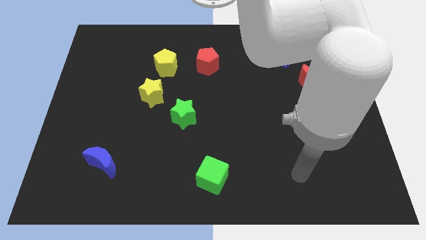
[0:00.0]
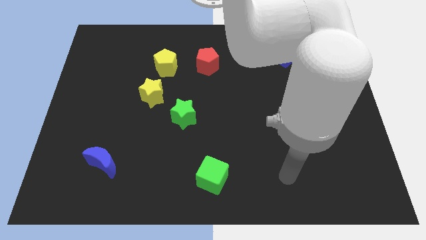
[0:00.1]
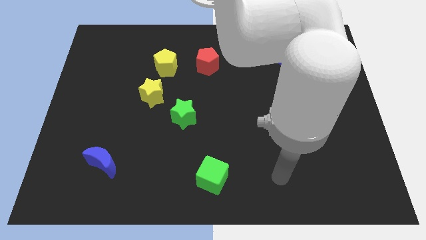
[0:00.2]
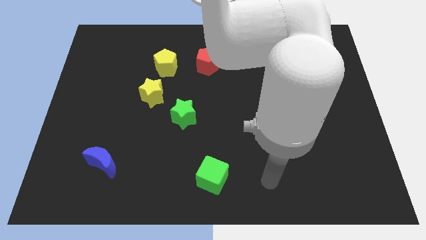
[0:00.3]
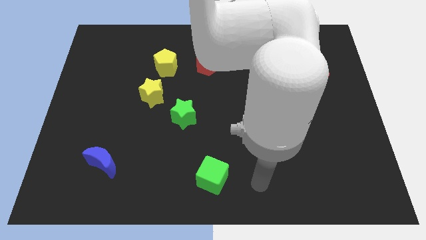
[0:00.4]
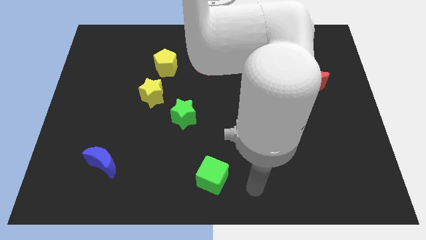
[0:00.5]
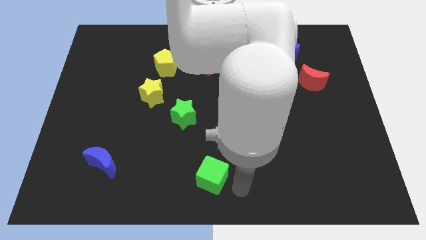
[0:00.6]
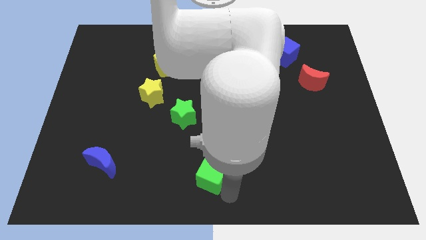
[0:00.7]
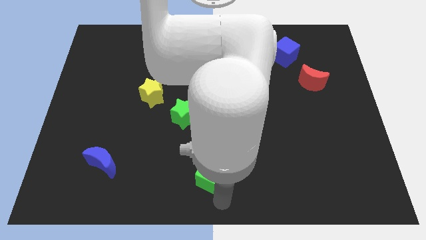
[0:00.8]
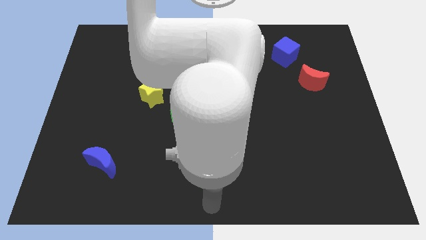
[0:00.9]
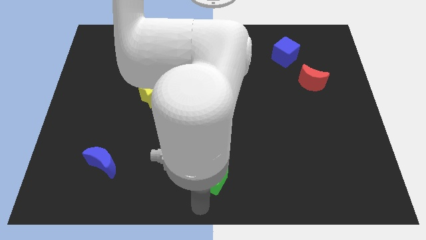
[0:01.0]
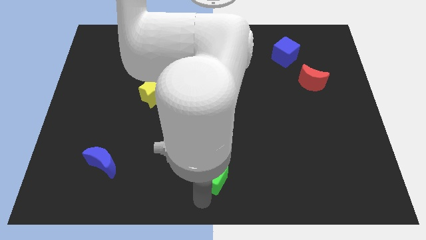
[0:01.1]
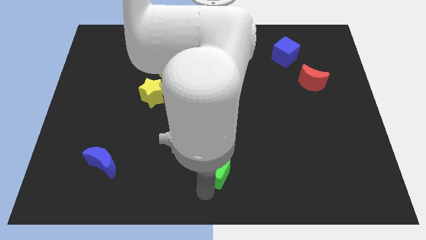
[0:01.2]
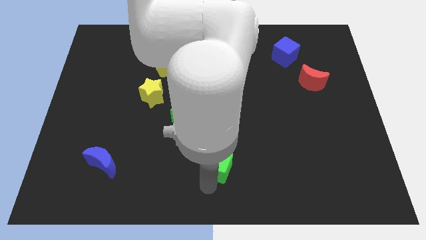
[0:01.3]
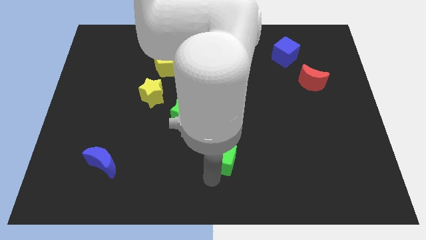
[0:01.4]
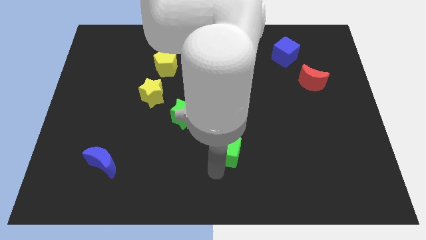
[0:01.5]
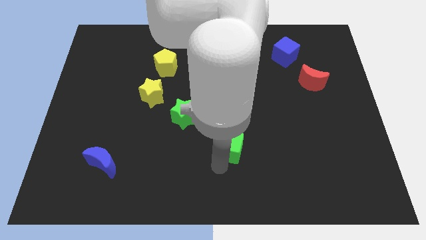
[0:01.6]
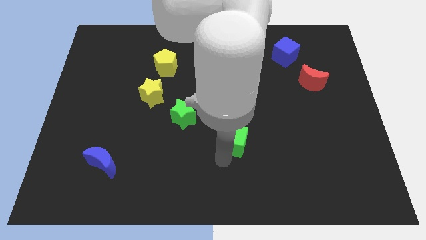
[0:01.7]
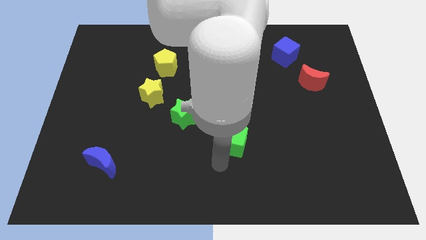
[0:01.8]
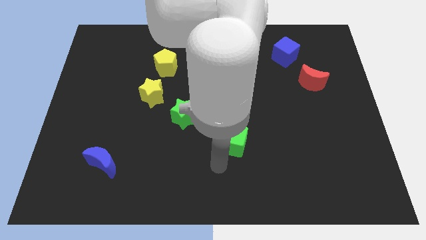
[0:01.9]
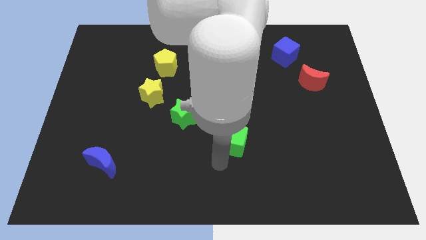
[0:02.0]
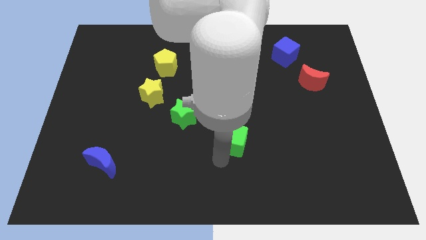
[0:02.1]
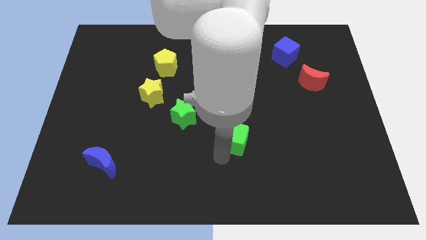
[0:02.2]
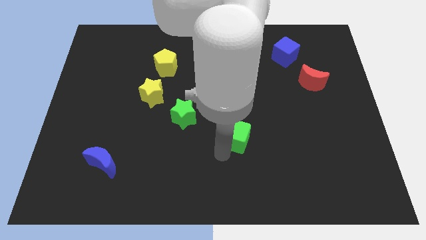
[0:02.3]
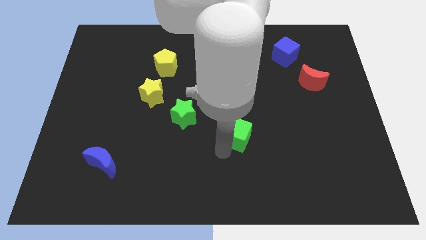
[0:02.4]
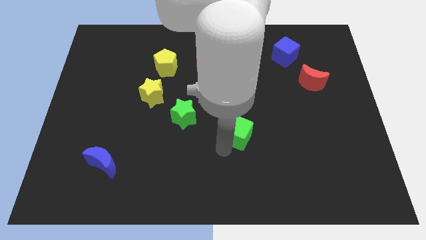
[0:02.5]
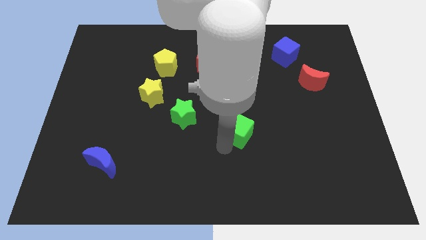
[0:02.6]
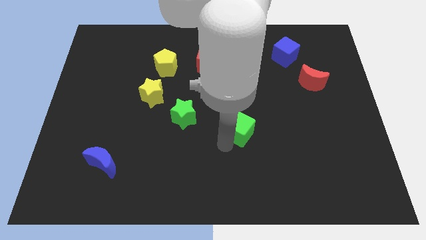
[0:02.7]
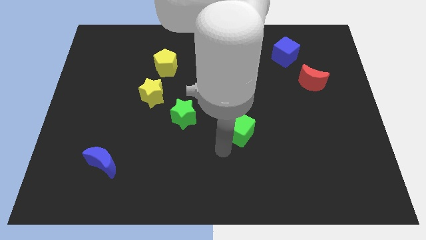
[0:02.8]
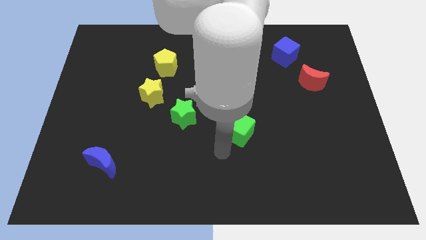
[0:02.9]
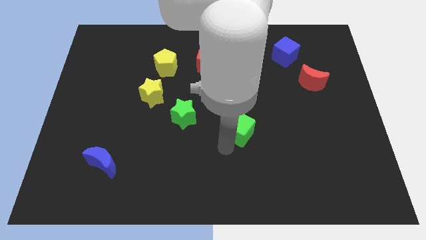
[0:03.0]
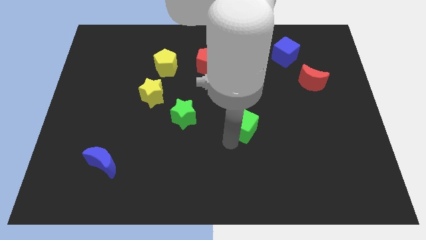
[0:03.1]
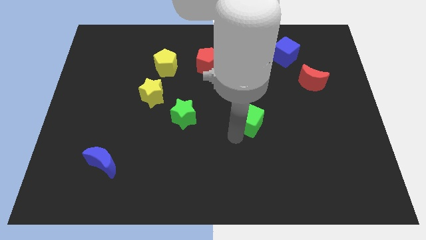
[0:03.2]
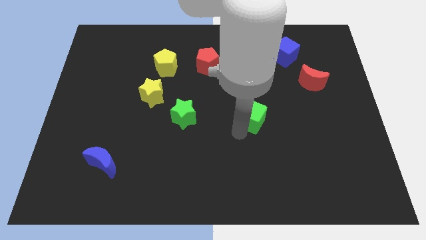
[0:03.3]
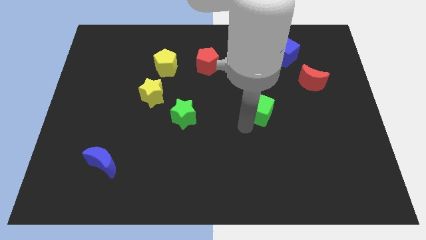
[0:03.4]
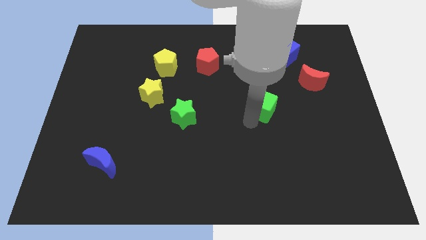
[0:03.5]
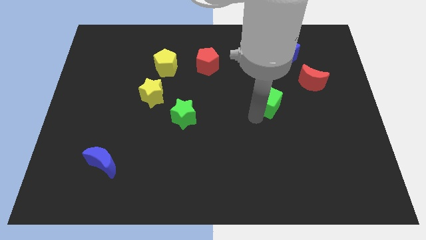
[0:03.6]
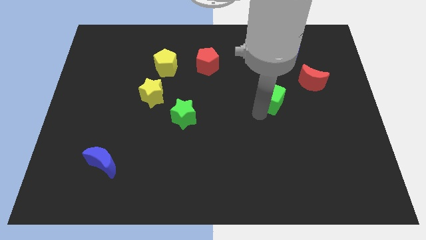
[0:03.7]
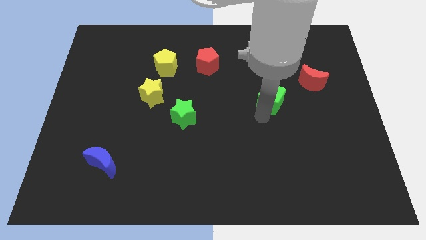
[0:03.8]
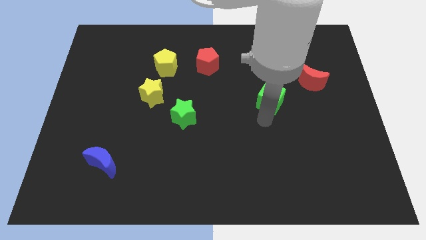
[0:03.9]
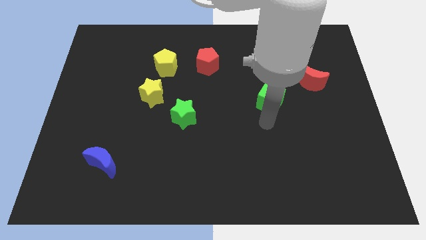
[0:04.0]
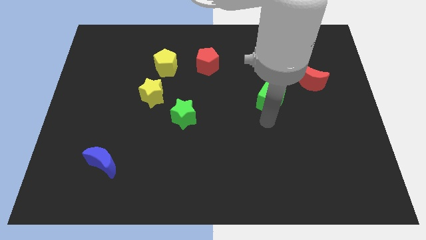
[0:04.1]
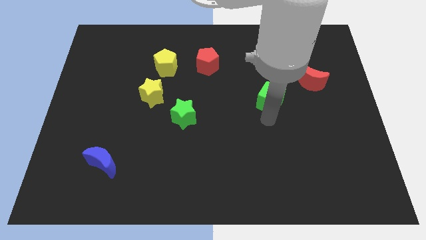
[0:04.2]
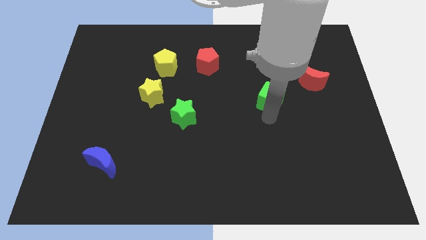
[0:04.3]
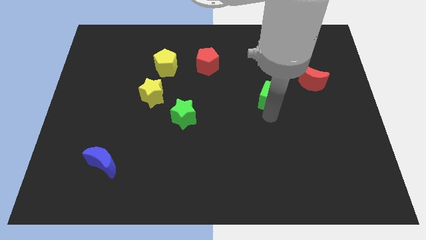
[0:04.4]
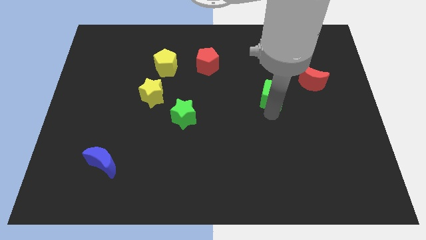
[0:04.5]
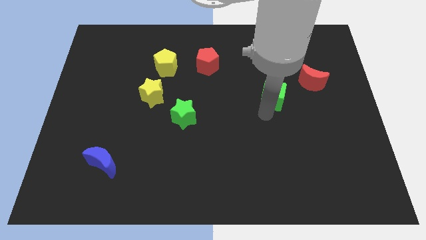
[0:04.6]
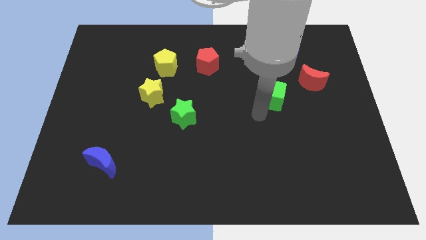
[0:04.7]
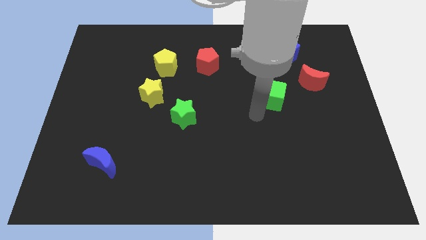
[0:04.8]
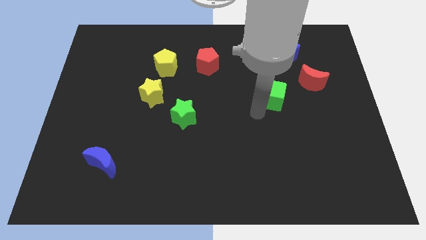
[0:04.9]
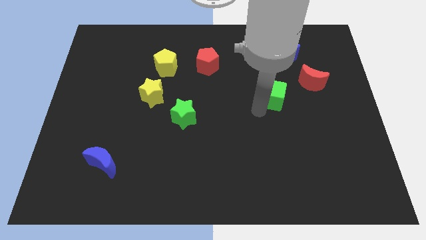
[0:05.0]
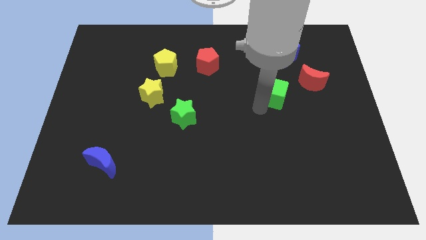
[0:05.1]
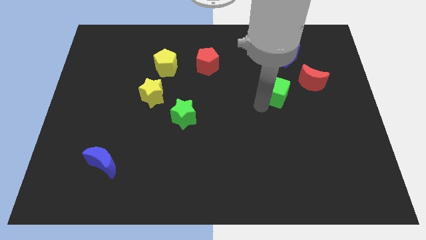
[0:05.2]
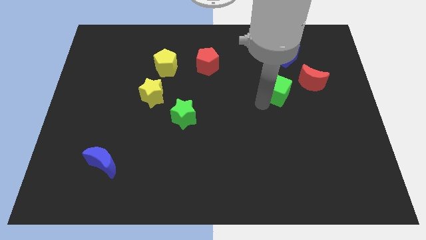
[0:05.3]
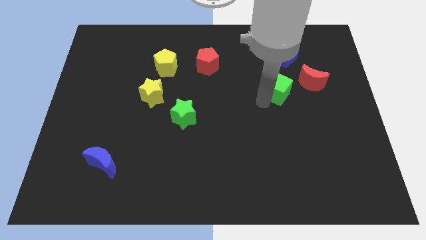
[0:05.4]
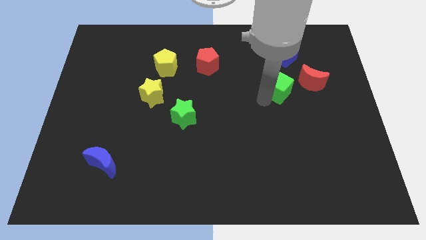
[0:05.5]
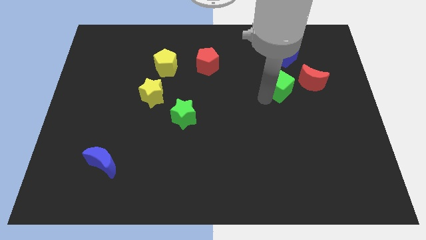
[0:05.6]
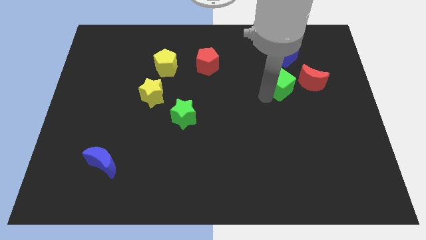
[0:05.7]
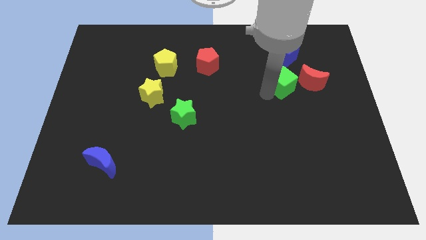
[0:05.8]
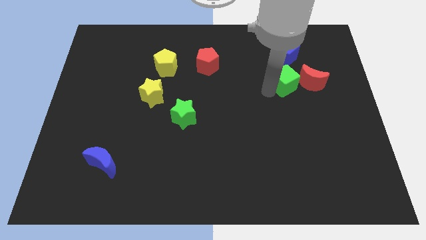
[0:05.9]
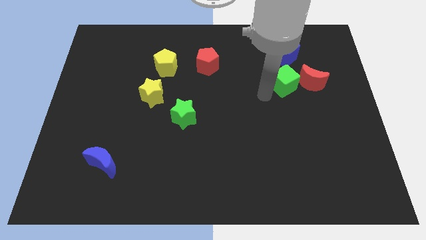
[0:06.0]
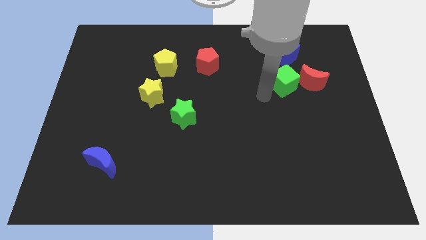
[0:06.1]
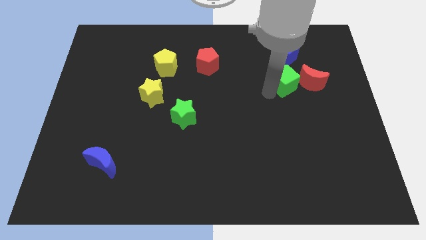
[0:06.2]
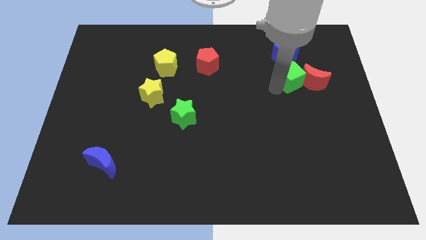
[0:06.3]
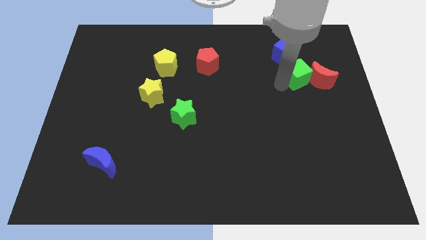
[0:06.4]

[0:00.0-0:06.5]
slide the green cube to the bottom right of the blue cube
